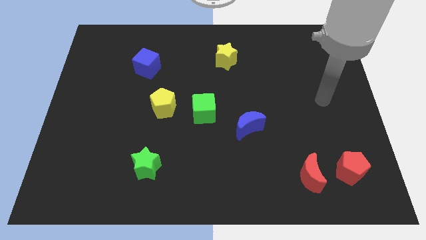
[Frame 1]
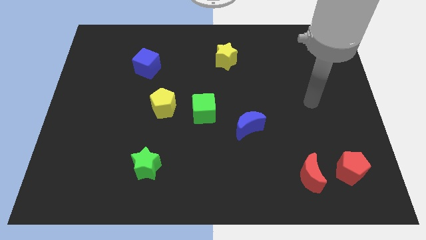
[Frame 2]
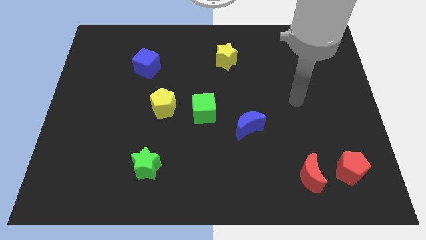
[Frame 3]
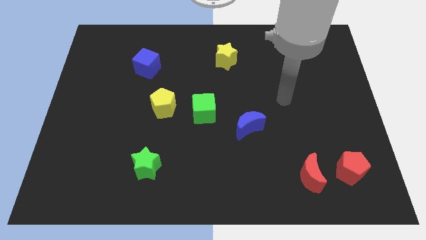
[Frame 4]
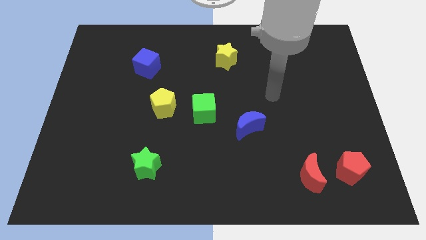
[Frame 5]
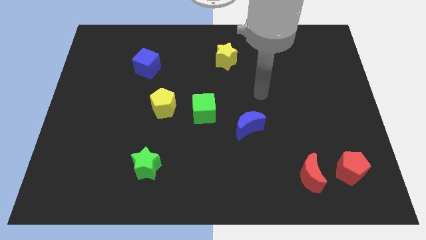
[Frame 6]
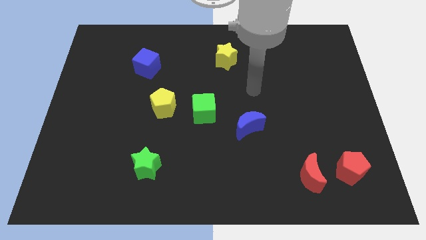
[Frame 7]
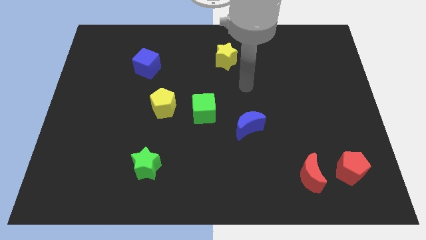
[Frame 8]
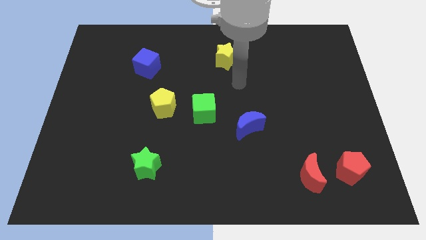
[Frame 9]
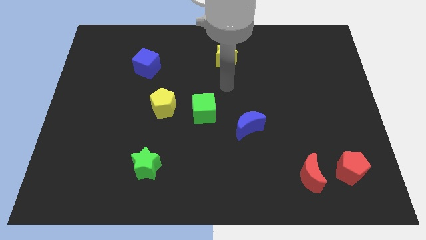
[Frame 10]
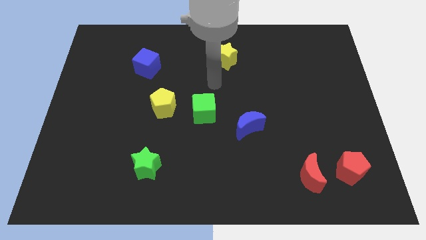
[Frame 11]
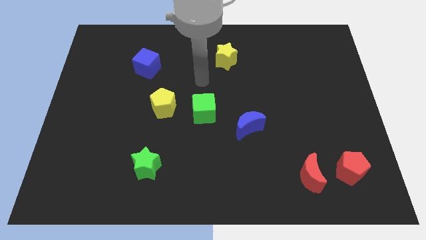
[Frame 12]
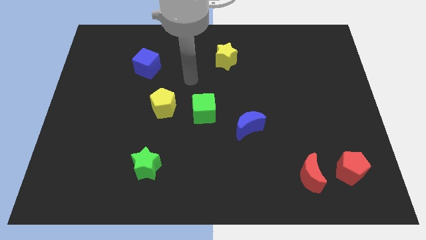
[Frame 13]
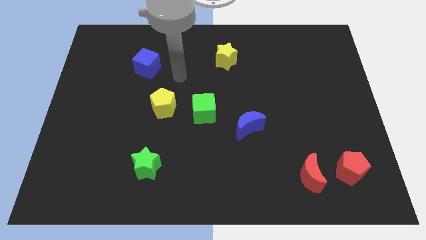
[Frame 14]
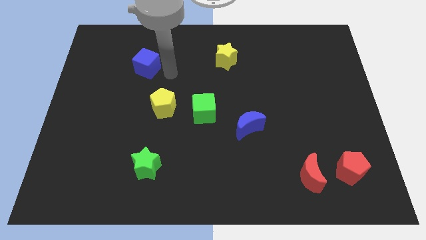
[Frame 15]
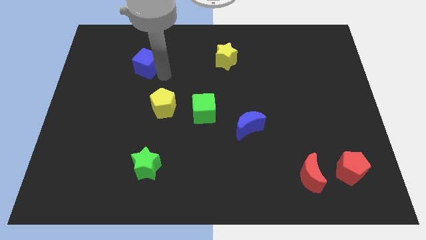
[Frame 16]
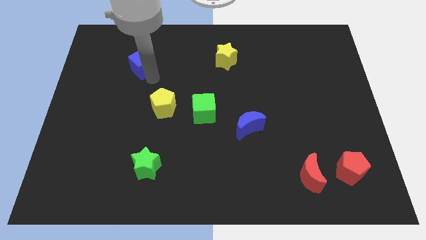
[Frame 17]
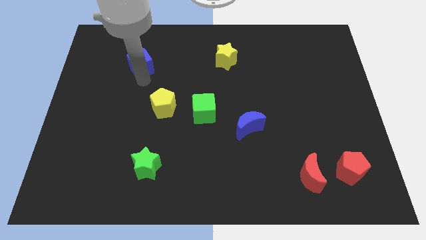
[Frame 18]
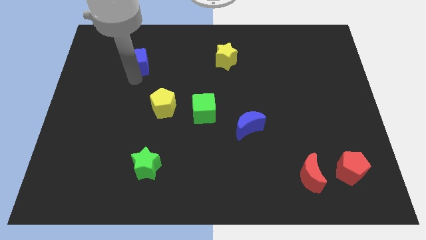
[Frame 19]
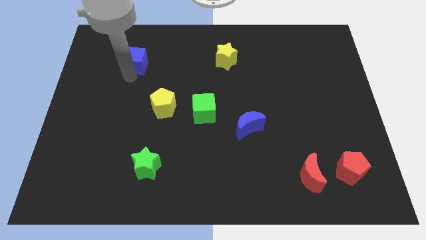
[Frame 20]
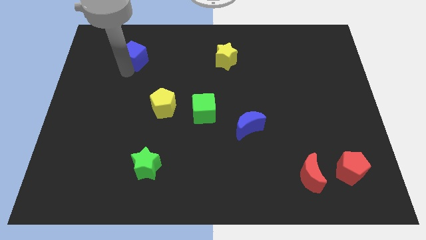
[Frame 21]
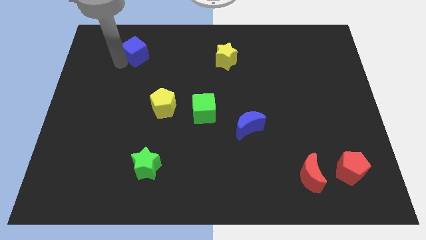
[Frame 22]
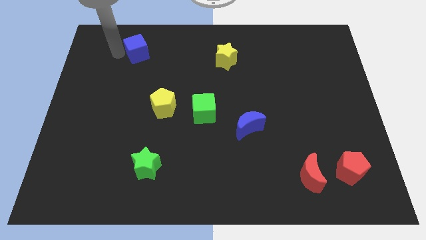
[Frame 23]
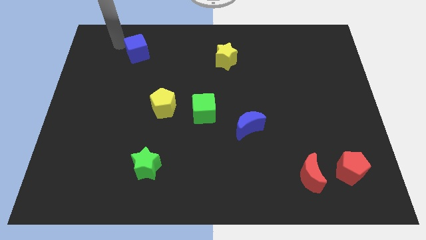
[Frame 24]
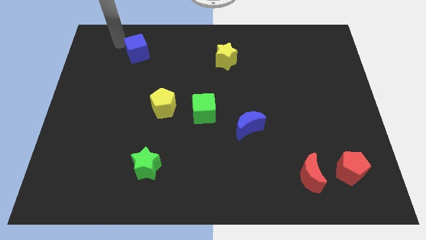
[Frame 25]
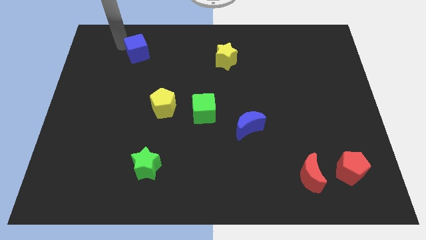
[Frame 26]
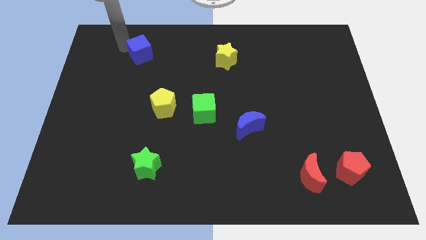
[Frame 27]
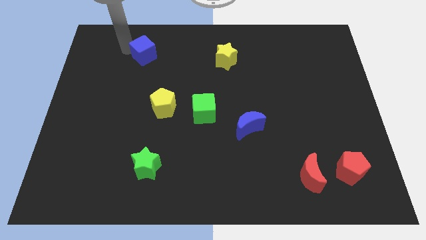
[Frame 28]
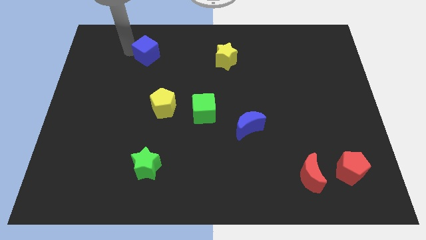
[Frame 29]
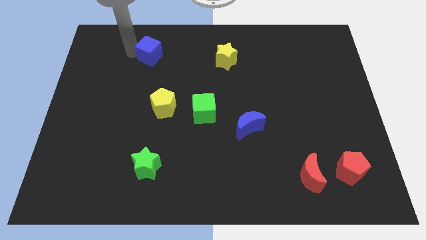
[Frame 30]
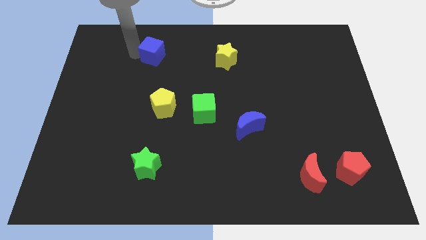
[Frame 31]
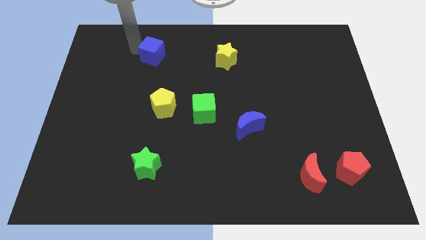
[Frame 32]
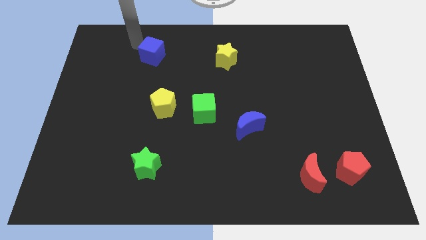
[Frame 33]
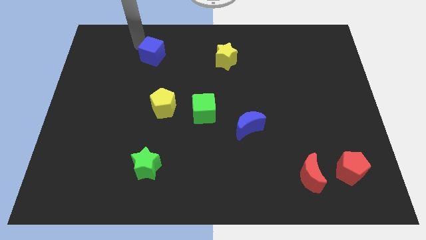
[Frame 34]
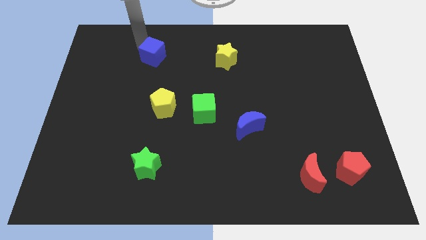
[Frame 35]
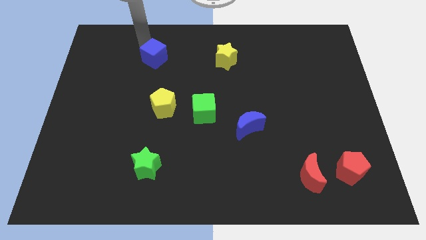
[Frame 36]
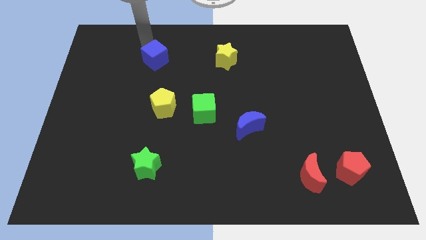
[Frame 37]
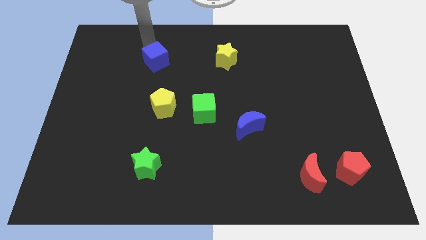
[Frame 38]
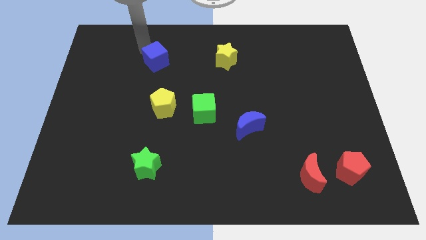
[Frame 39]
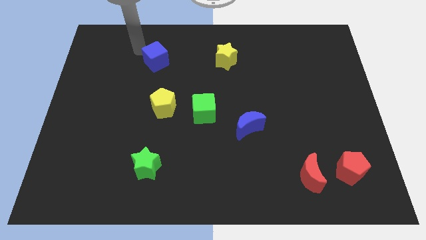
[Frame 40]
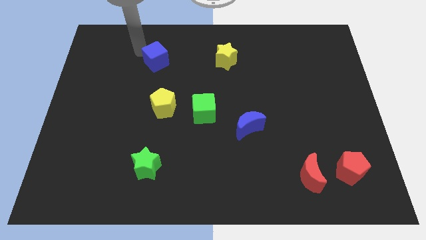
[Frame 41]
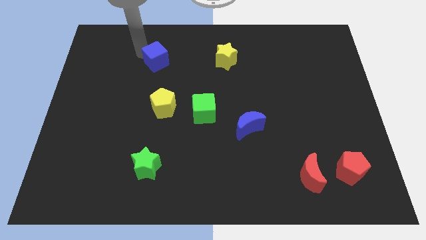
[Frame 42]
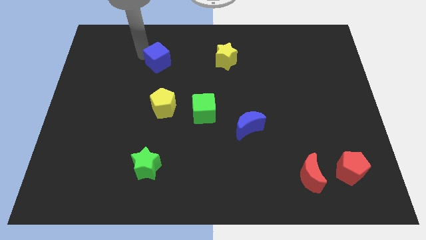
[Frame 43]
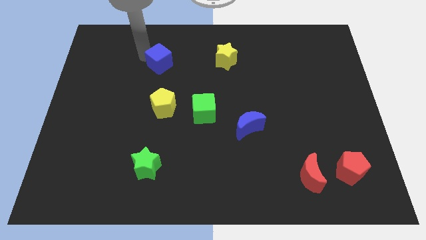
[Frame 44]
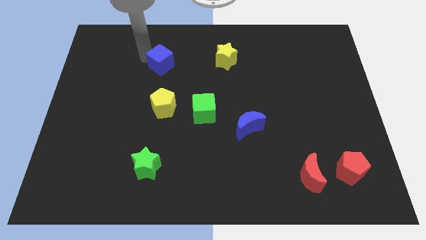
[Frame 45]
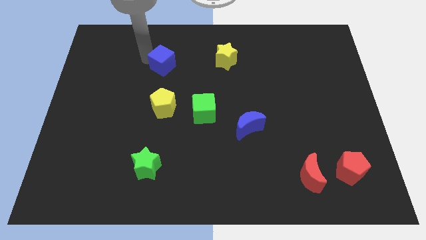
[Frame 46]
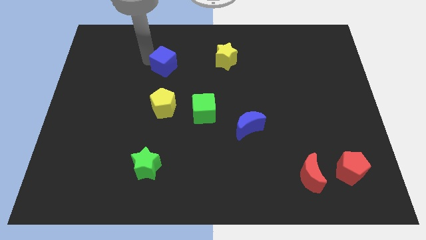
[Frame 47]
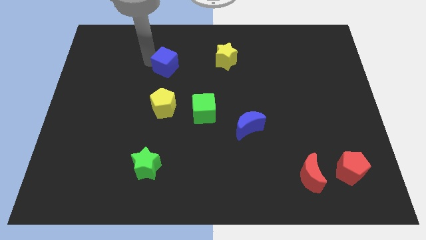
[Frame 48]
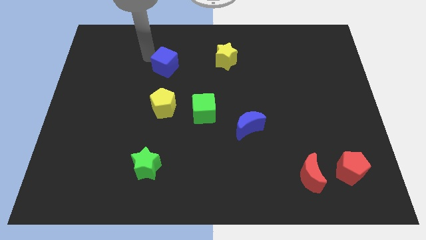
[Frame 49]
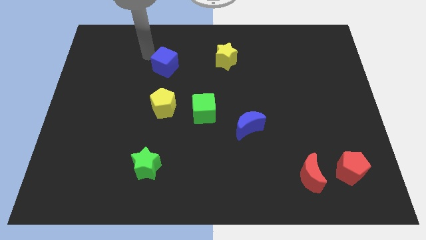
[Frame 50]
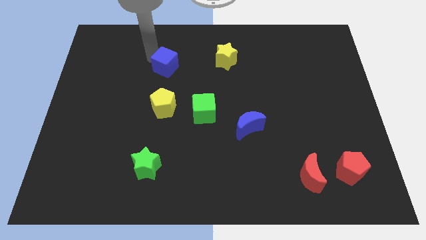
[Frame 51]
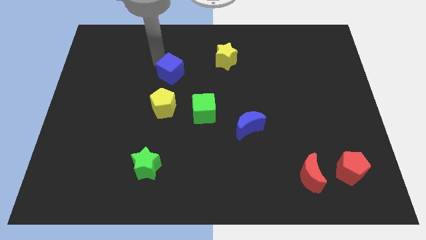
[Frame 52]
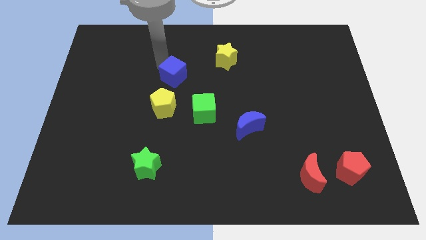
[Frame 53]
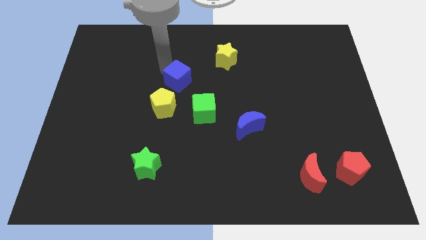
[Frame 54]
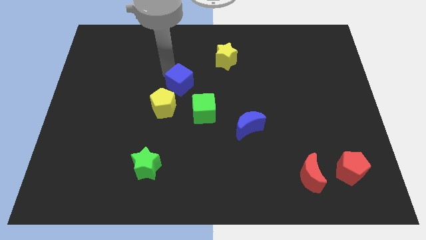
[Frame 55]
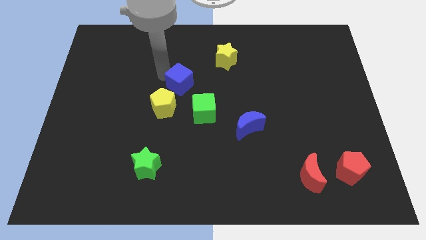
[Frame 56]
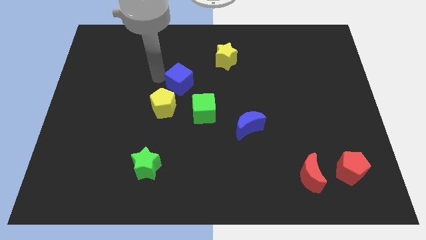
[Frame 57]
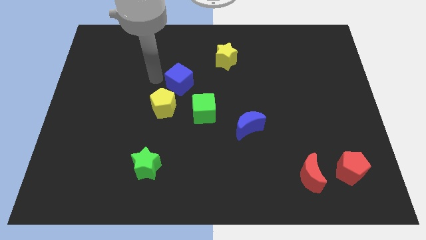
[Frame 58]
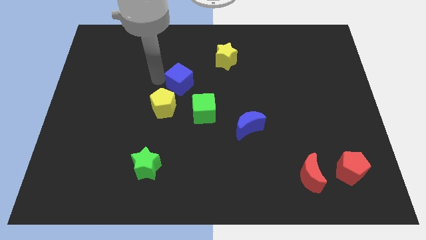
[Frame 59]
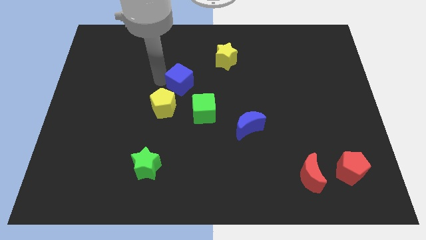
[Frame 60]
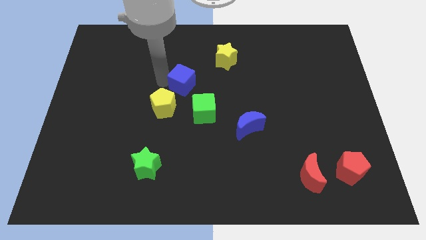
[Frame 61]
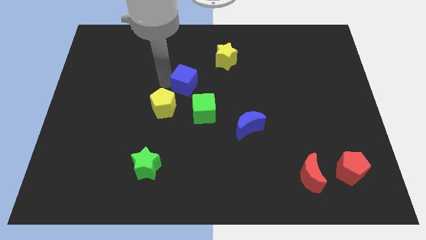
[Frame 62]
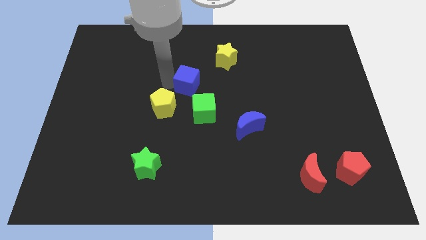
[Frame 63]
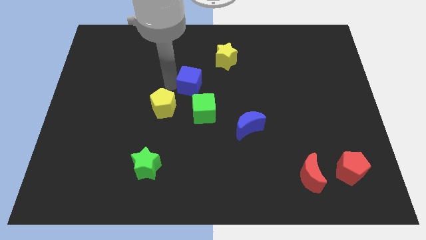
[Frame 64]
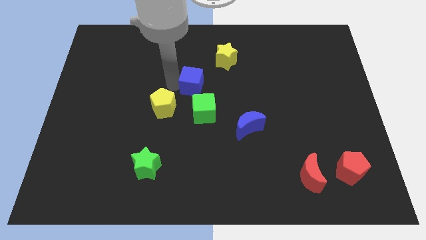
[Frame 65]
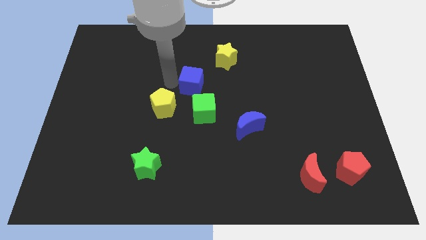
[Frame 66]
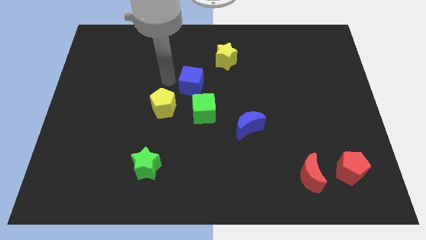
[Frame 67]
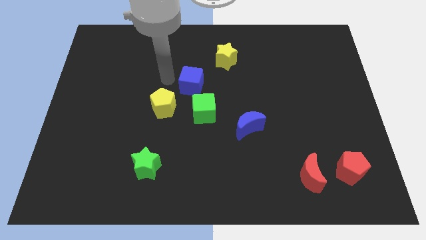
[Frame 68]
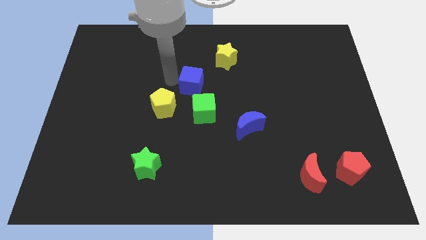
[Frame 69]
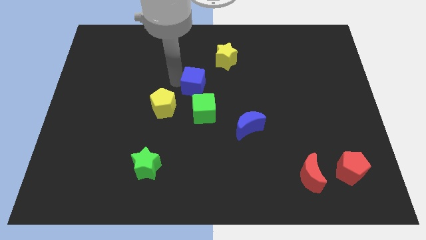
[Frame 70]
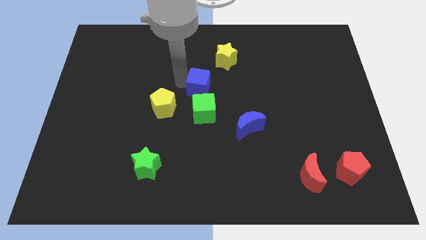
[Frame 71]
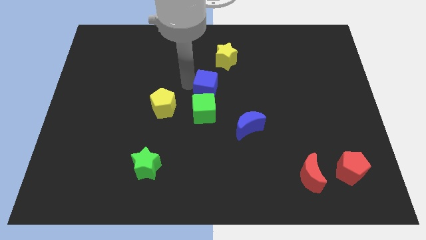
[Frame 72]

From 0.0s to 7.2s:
put the blue cube below the yellow star
